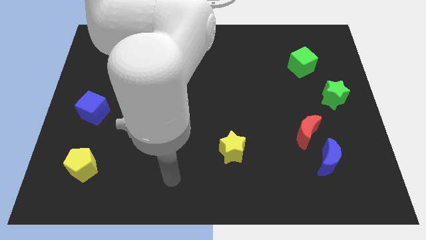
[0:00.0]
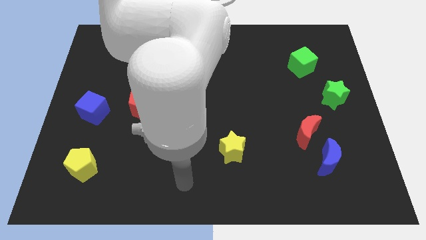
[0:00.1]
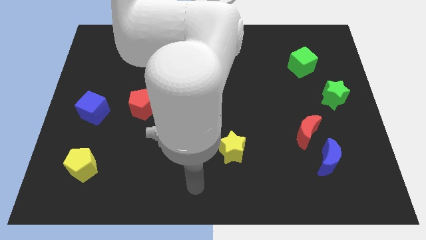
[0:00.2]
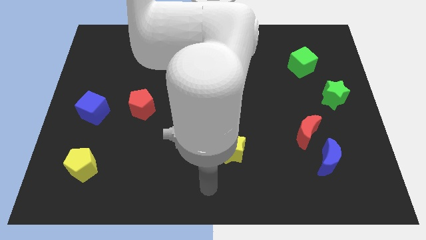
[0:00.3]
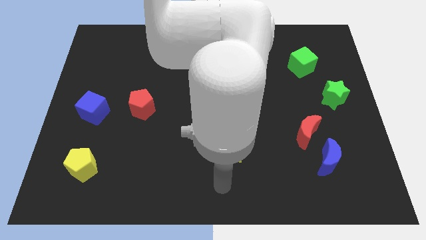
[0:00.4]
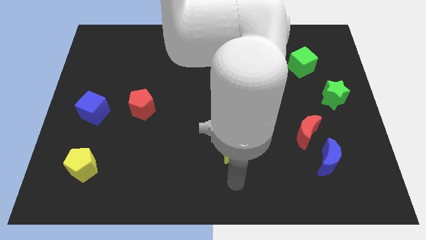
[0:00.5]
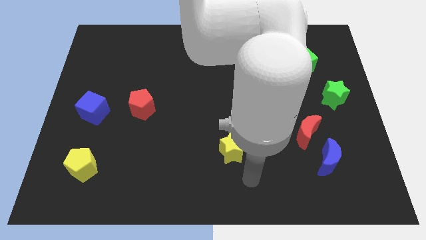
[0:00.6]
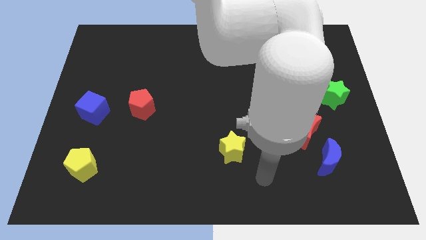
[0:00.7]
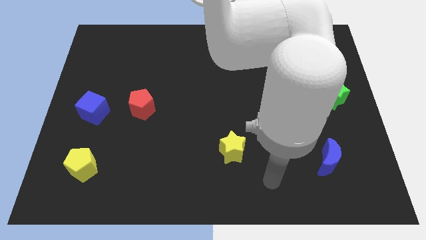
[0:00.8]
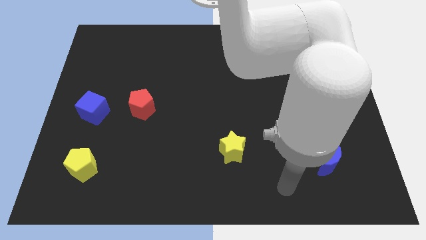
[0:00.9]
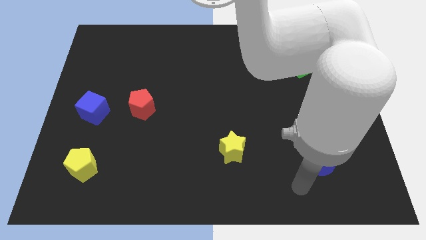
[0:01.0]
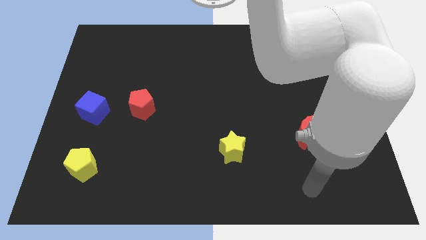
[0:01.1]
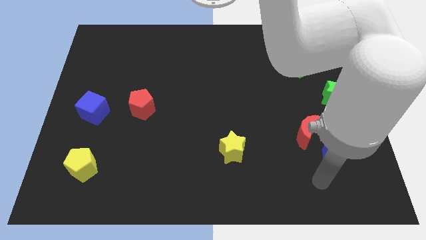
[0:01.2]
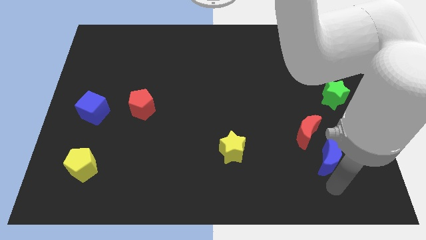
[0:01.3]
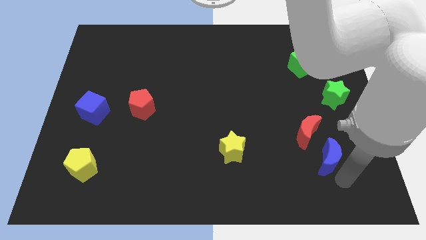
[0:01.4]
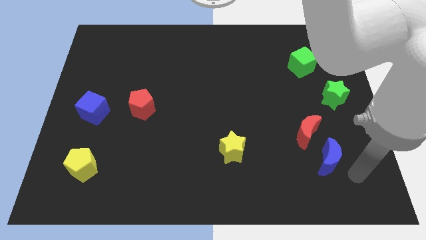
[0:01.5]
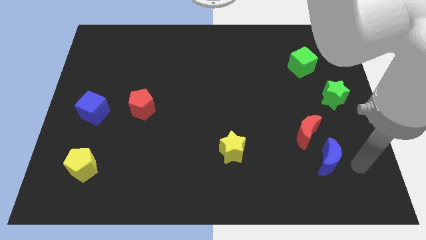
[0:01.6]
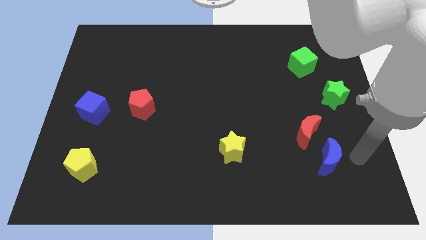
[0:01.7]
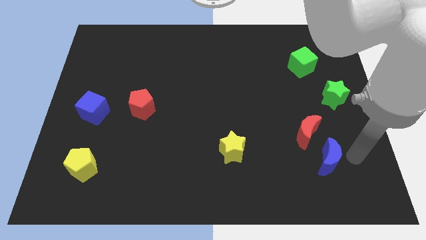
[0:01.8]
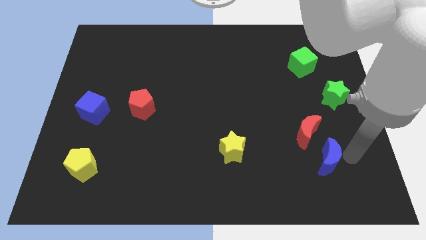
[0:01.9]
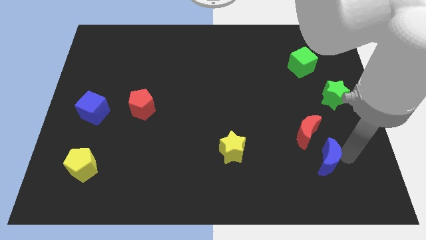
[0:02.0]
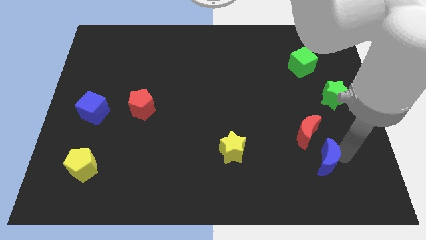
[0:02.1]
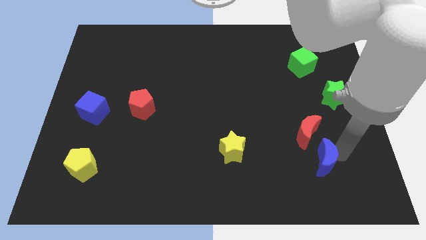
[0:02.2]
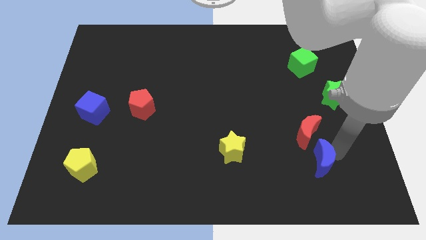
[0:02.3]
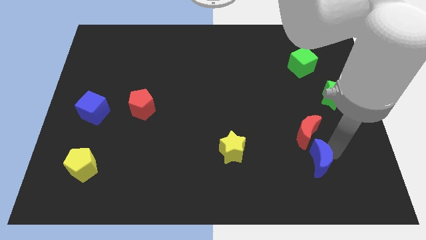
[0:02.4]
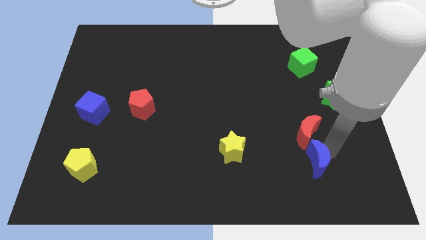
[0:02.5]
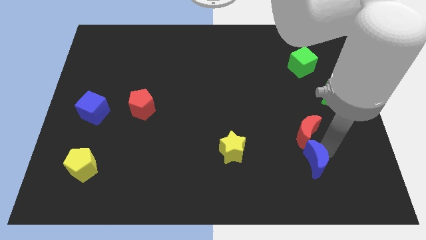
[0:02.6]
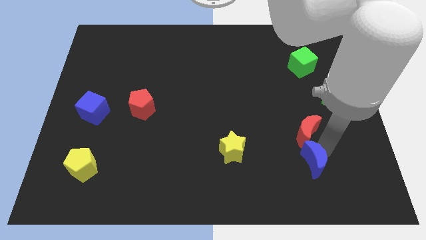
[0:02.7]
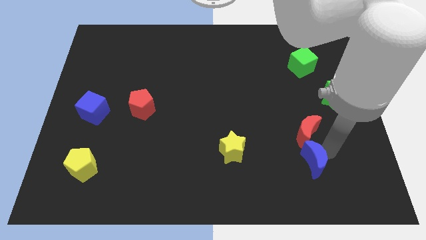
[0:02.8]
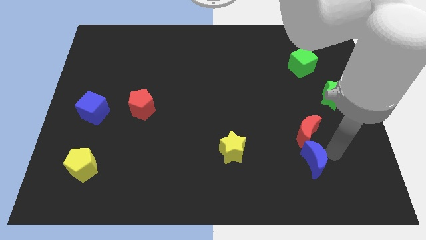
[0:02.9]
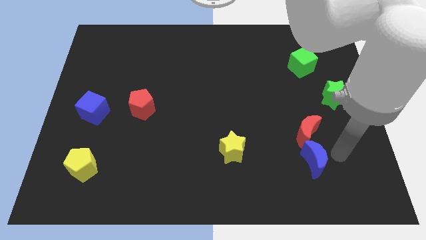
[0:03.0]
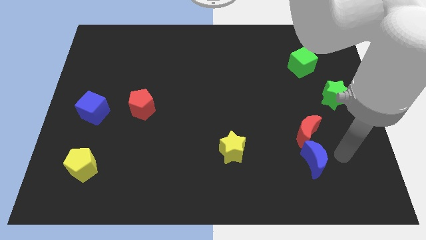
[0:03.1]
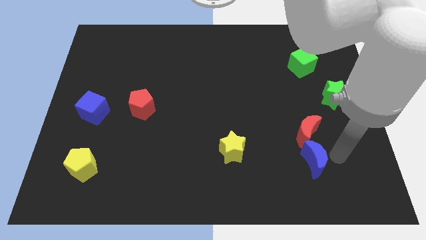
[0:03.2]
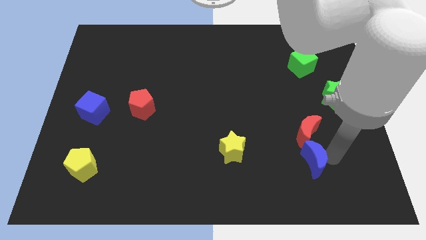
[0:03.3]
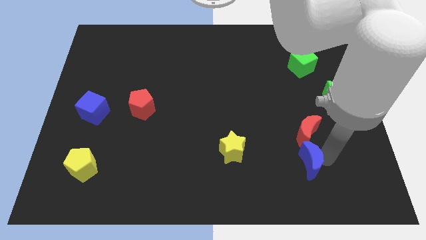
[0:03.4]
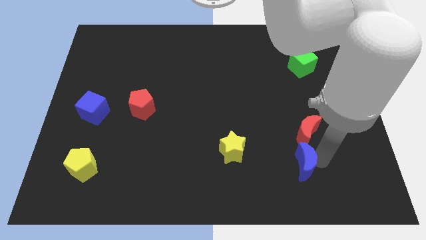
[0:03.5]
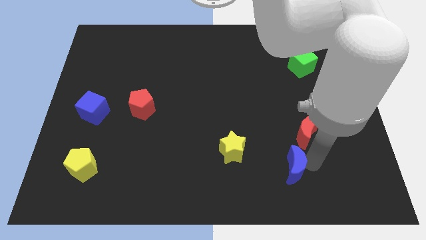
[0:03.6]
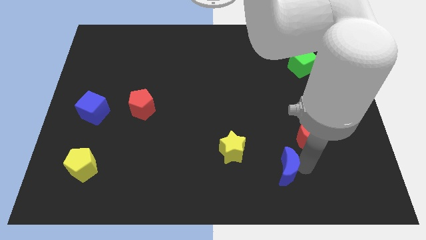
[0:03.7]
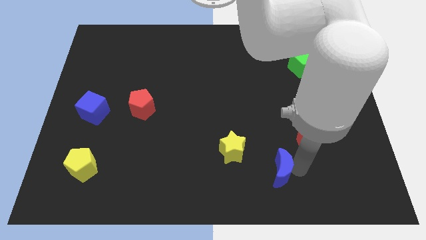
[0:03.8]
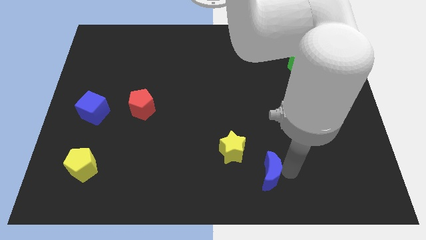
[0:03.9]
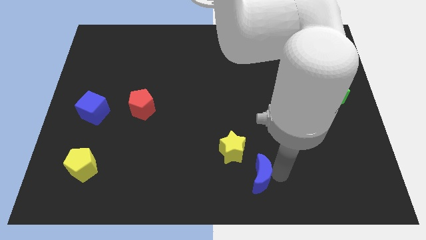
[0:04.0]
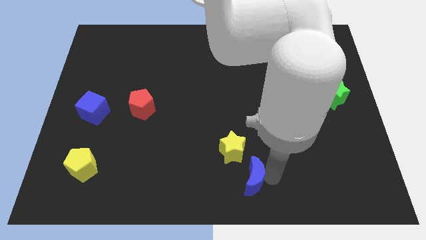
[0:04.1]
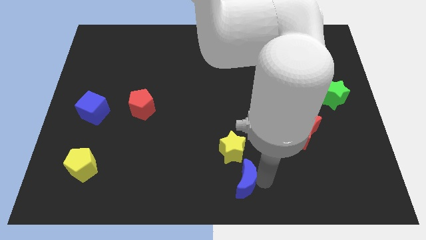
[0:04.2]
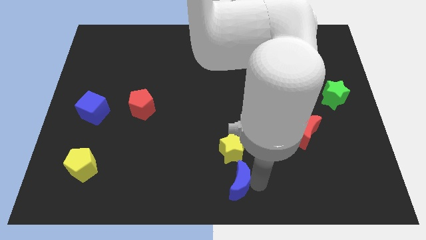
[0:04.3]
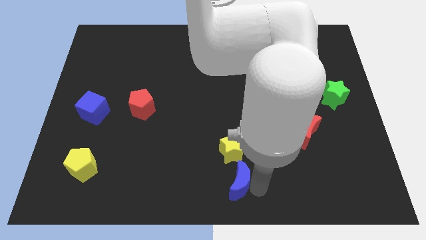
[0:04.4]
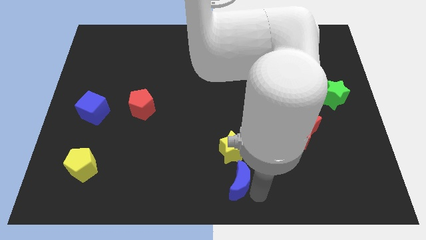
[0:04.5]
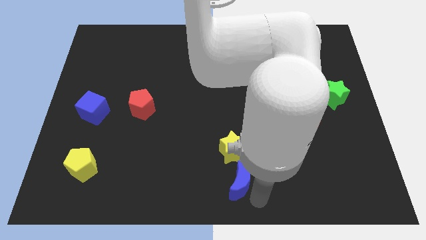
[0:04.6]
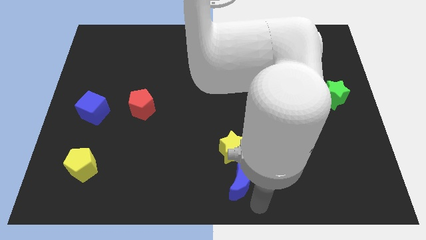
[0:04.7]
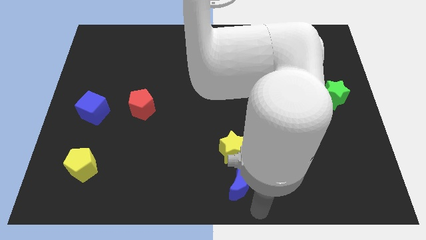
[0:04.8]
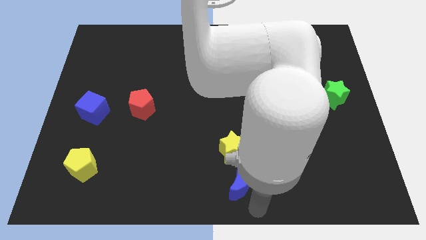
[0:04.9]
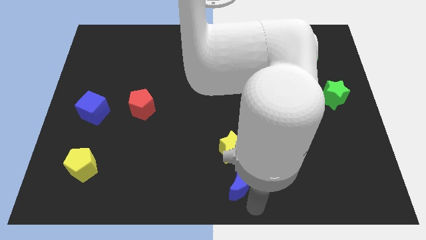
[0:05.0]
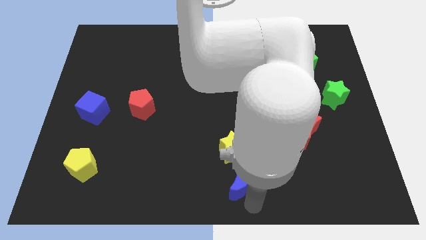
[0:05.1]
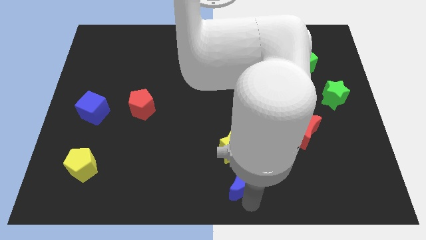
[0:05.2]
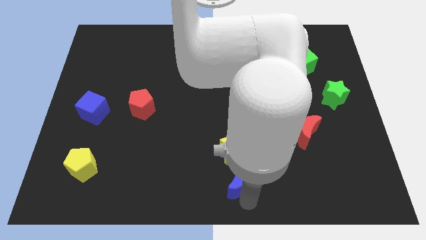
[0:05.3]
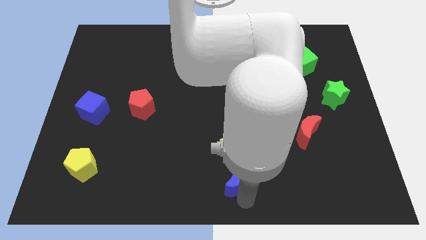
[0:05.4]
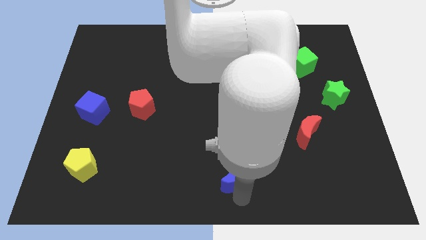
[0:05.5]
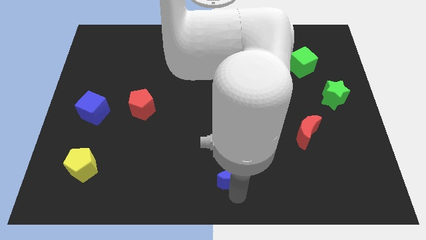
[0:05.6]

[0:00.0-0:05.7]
slide the blue moon left

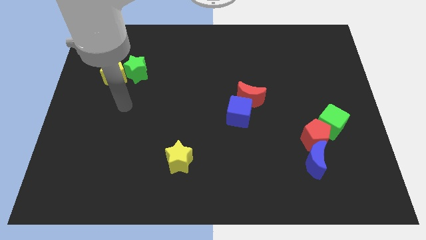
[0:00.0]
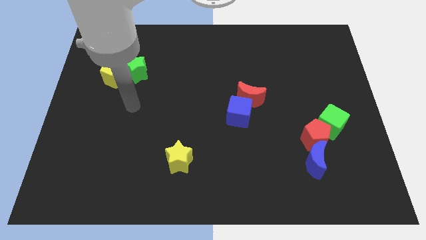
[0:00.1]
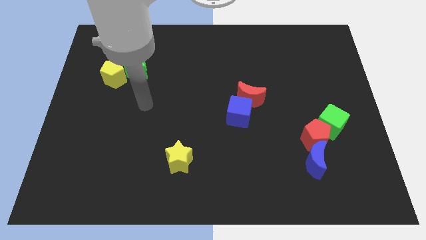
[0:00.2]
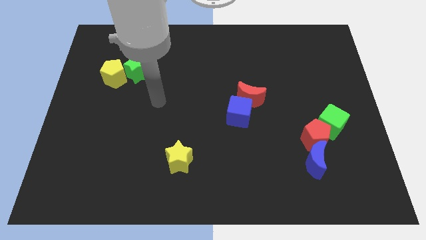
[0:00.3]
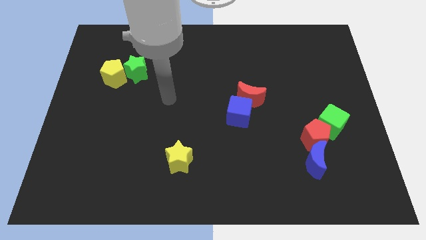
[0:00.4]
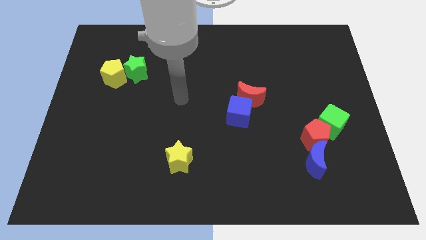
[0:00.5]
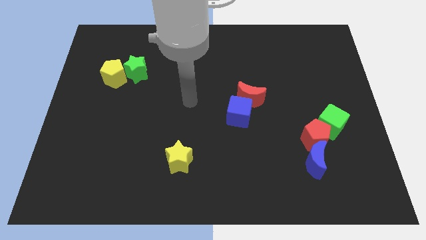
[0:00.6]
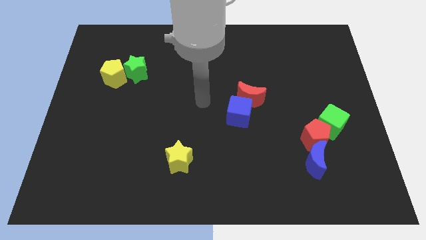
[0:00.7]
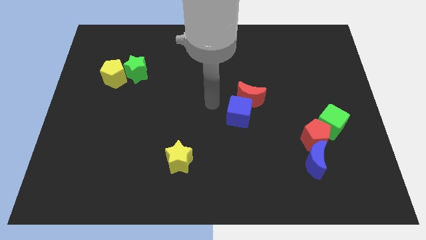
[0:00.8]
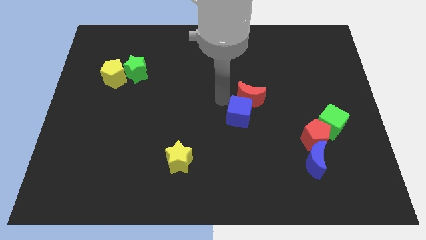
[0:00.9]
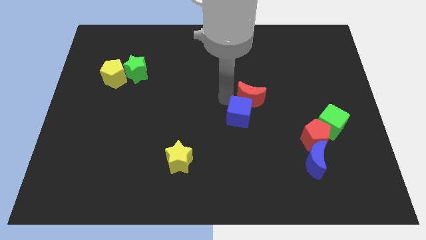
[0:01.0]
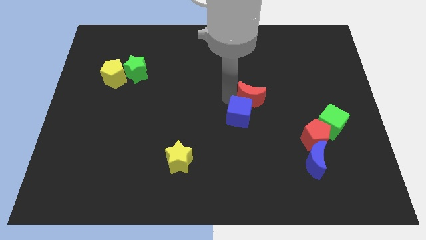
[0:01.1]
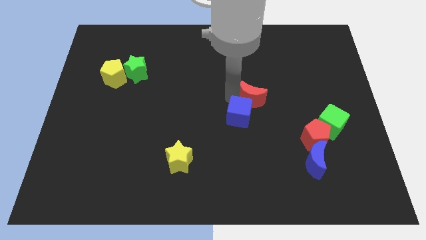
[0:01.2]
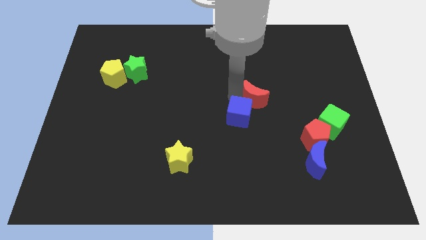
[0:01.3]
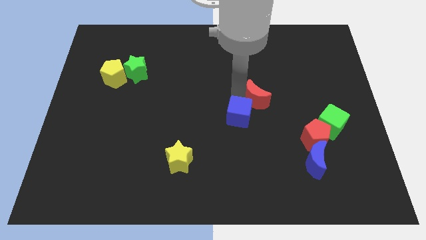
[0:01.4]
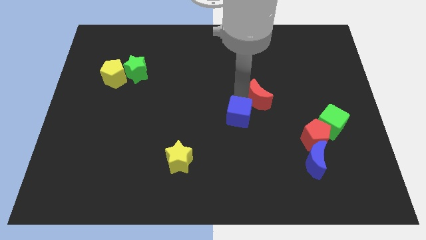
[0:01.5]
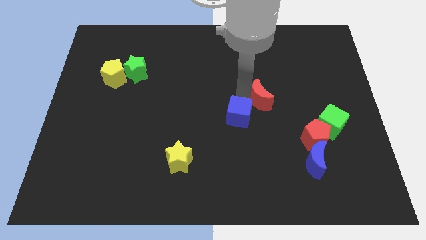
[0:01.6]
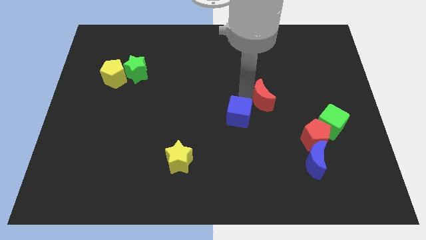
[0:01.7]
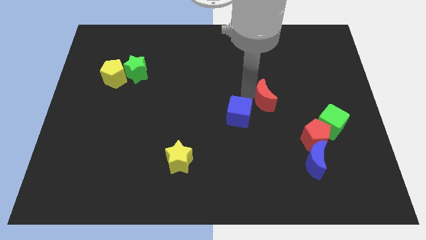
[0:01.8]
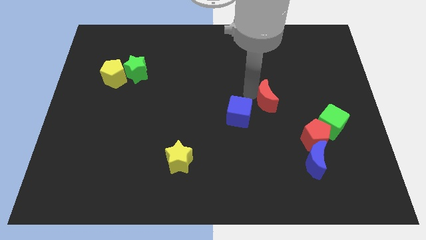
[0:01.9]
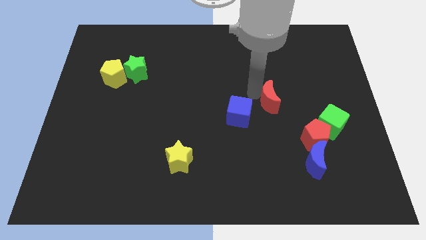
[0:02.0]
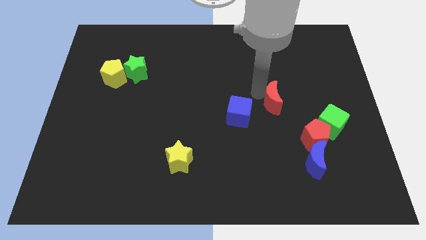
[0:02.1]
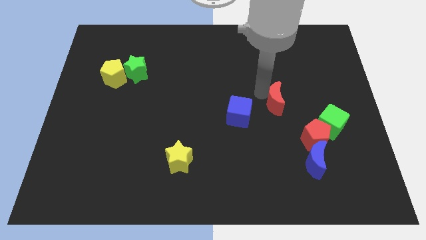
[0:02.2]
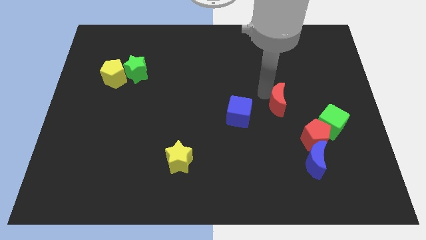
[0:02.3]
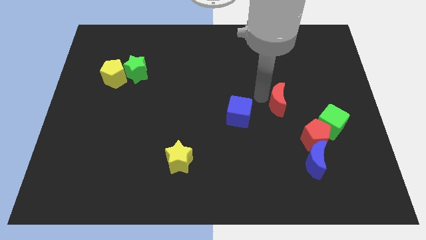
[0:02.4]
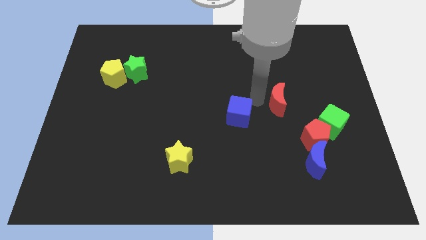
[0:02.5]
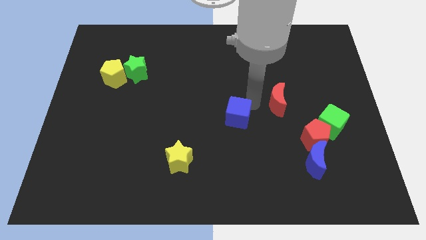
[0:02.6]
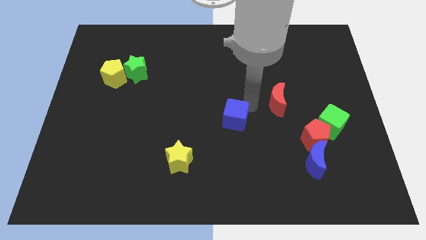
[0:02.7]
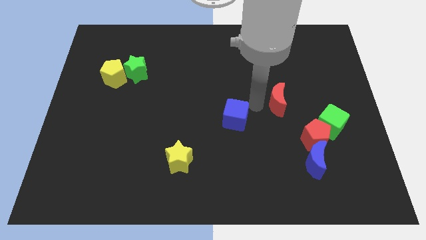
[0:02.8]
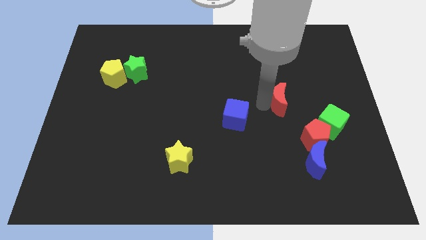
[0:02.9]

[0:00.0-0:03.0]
push the red moon a little bit to the right
